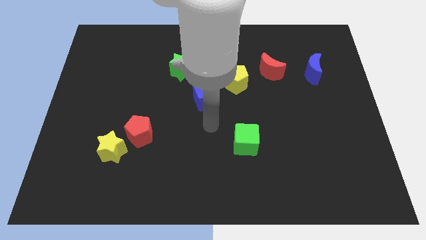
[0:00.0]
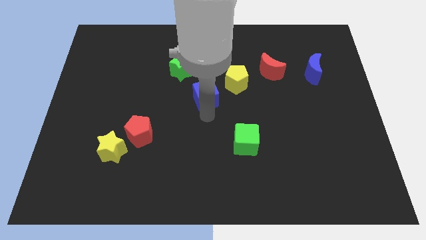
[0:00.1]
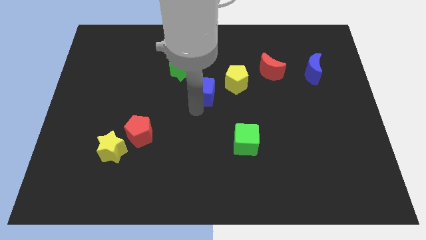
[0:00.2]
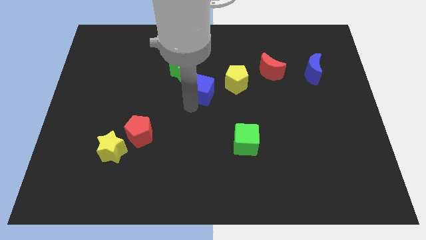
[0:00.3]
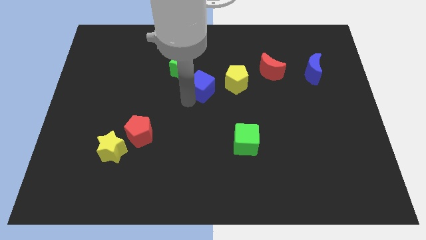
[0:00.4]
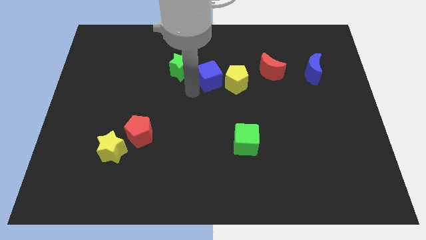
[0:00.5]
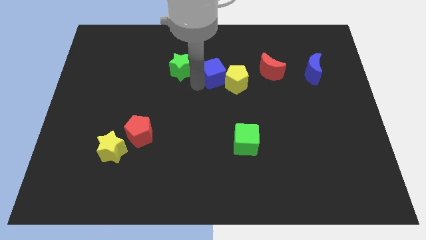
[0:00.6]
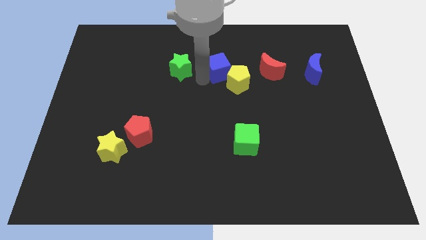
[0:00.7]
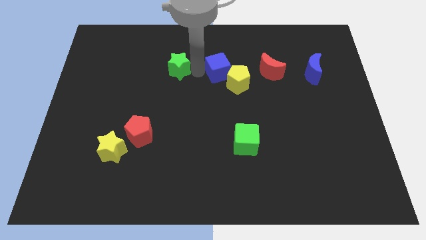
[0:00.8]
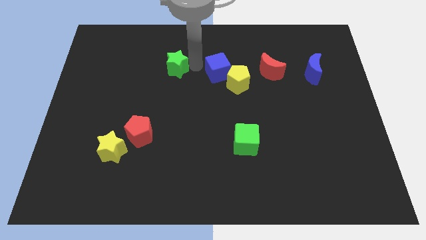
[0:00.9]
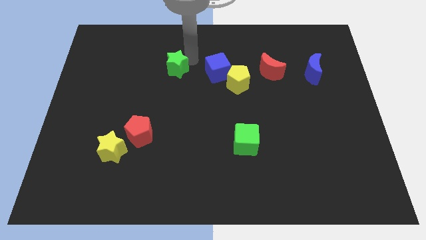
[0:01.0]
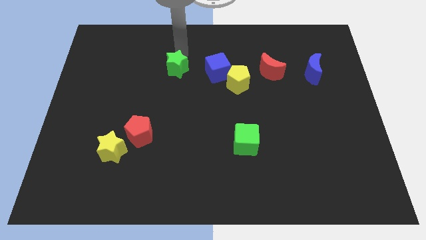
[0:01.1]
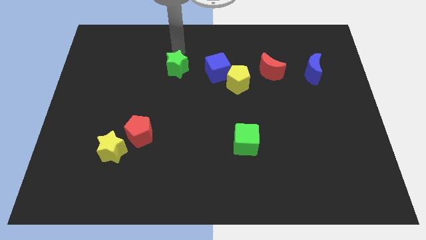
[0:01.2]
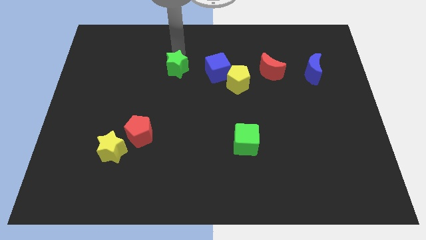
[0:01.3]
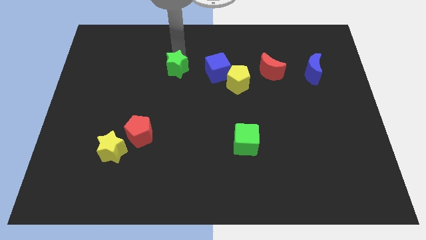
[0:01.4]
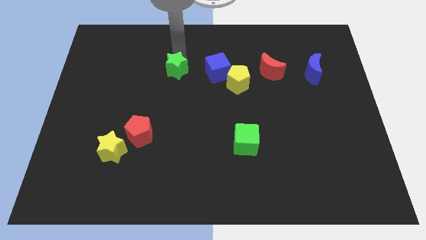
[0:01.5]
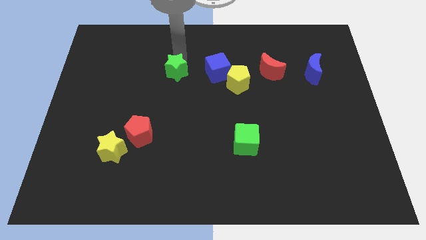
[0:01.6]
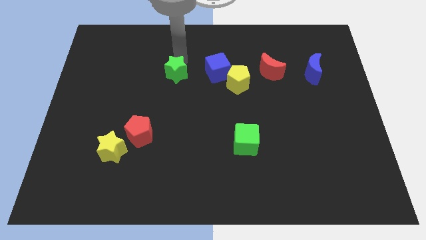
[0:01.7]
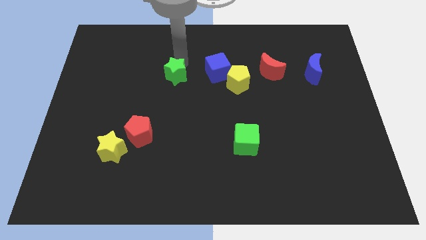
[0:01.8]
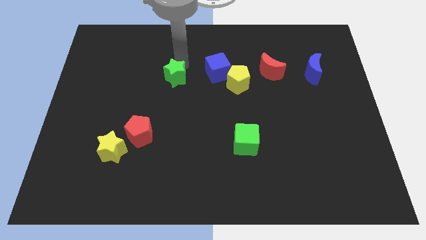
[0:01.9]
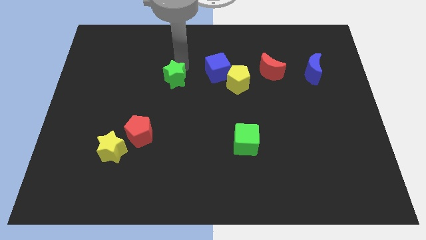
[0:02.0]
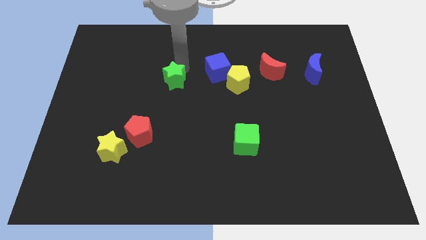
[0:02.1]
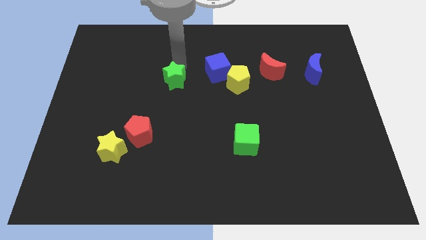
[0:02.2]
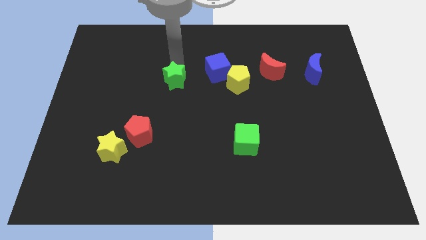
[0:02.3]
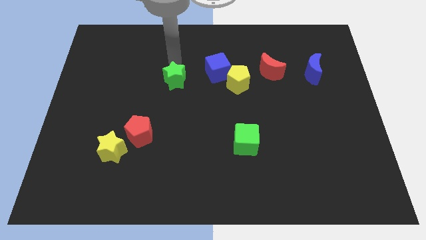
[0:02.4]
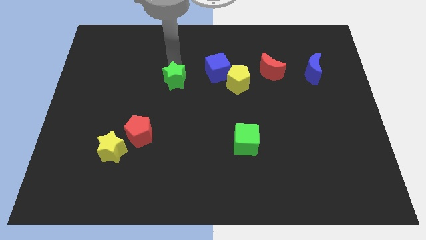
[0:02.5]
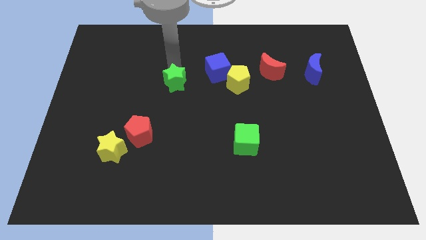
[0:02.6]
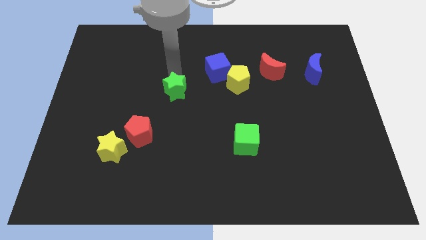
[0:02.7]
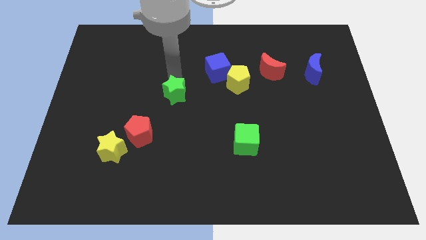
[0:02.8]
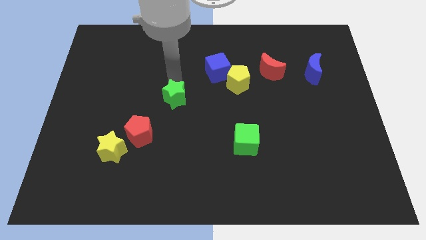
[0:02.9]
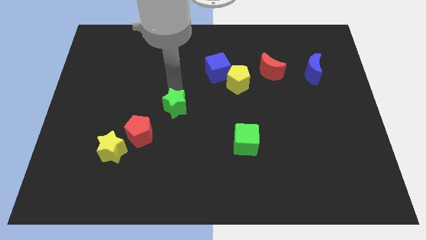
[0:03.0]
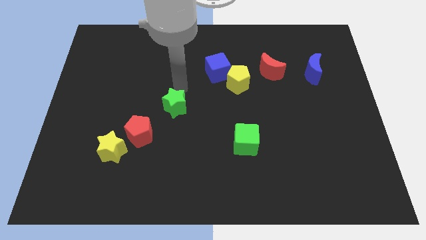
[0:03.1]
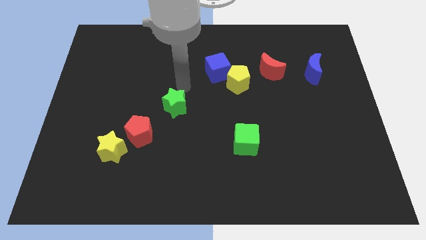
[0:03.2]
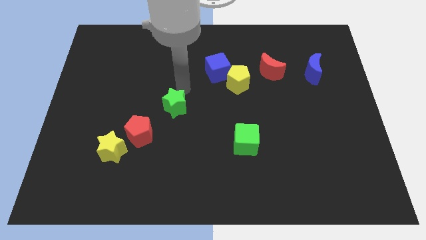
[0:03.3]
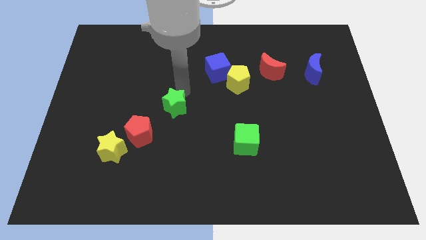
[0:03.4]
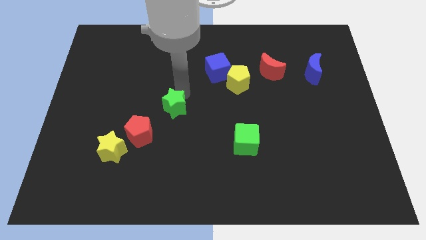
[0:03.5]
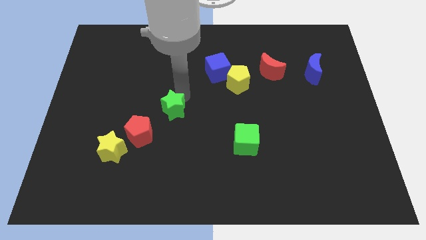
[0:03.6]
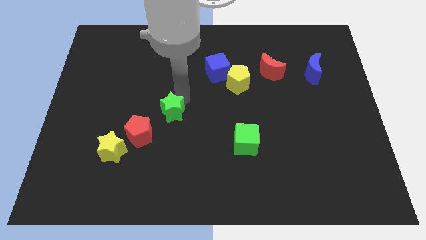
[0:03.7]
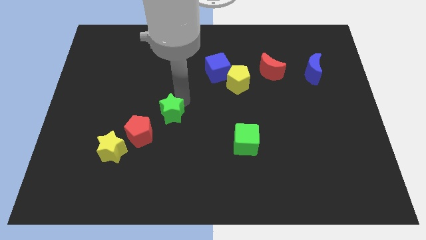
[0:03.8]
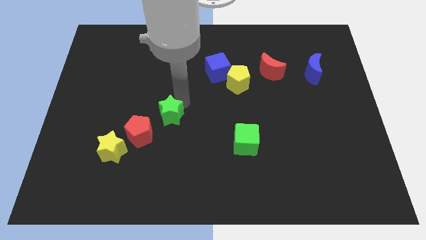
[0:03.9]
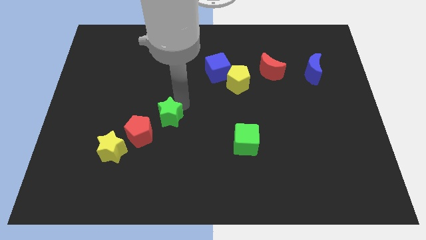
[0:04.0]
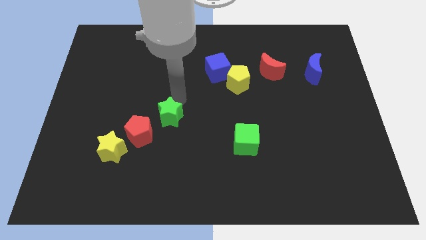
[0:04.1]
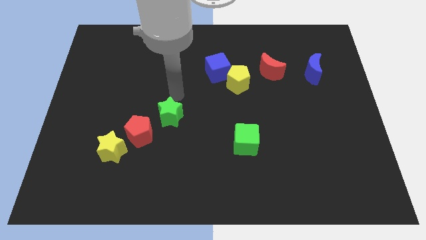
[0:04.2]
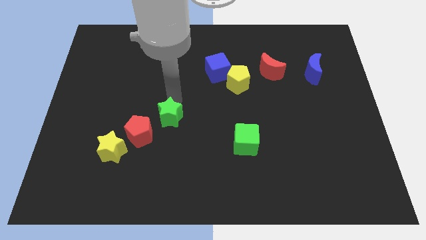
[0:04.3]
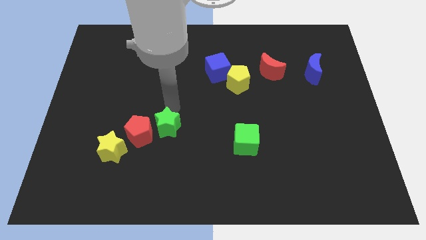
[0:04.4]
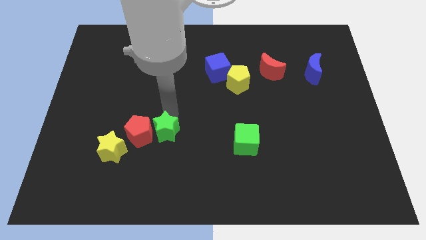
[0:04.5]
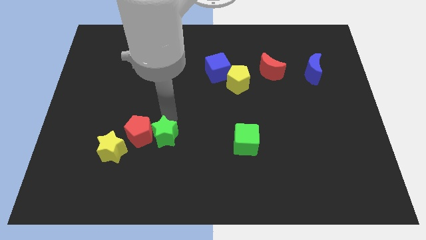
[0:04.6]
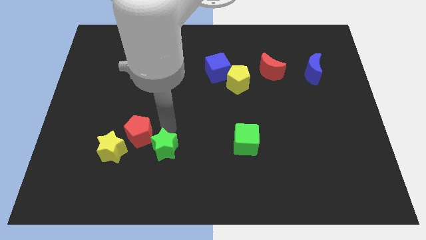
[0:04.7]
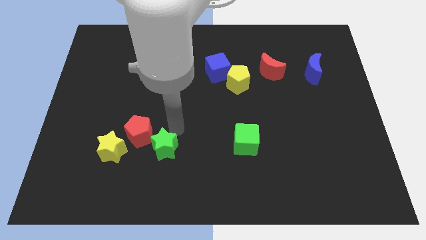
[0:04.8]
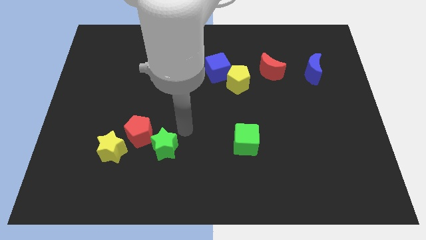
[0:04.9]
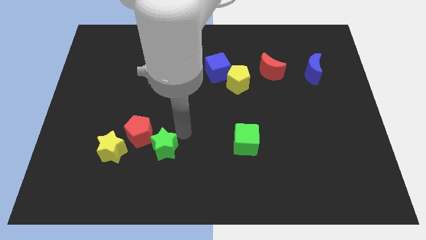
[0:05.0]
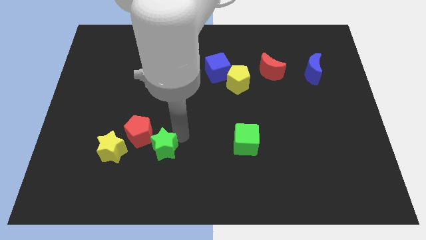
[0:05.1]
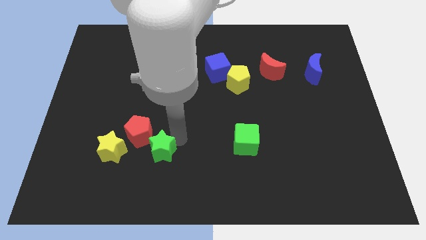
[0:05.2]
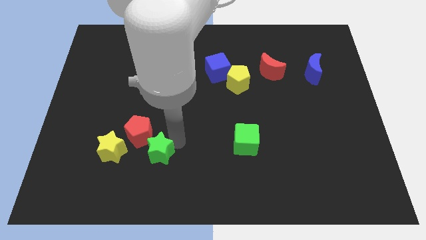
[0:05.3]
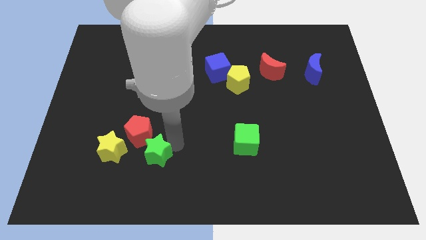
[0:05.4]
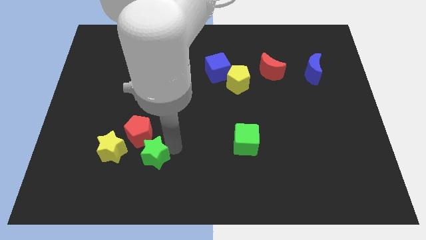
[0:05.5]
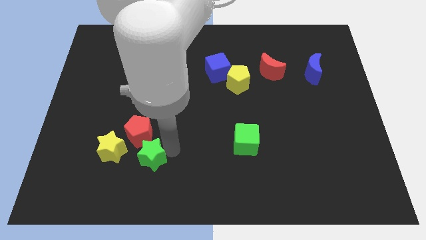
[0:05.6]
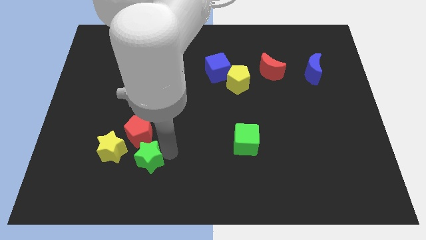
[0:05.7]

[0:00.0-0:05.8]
put the green star to the bottom right of the yellow star

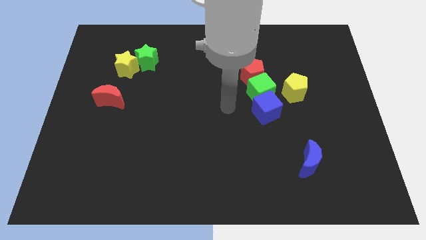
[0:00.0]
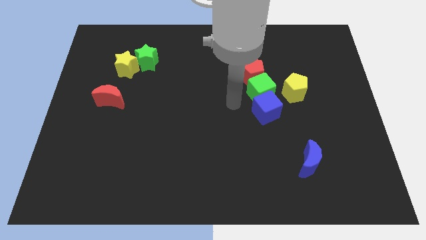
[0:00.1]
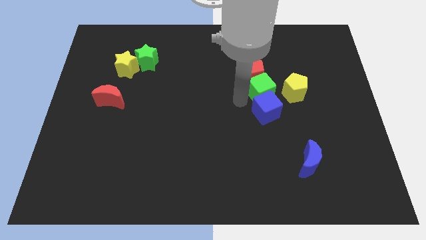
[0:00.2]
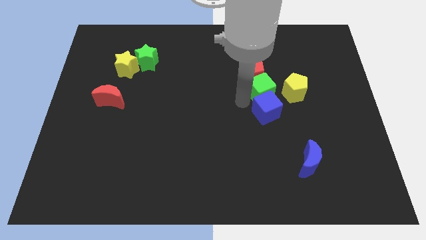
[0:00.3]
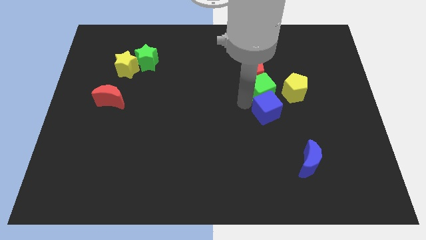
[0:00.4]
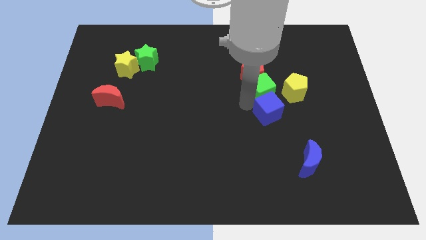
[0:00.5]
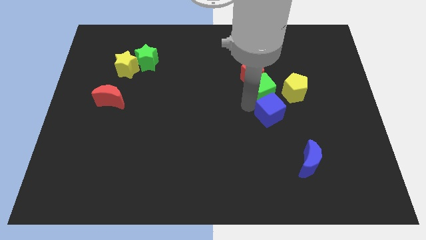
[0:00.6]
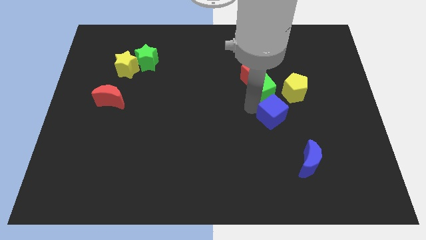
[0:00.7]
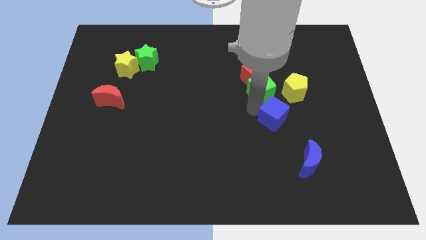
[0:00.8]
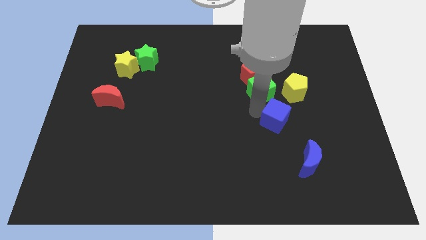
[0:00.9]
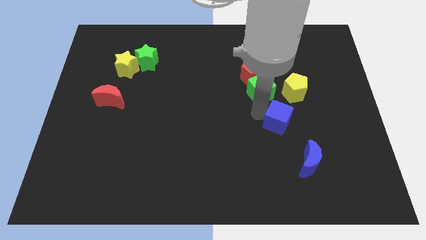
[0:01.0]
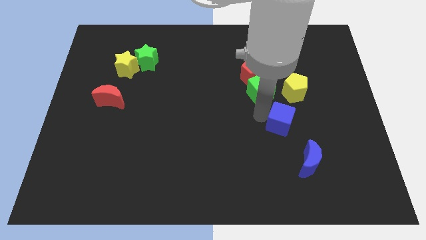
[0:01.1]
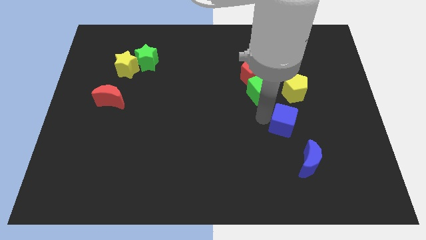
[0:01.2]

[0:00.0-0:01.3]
slide the blue cube to the top side of the blue moon
